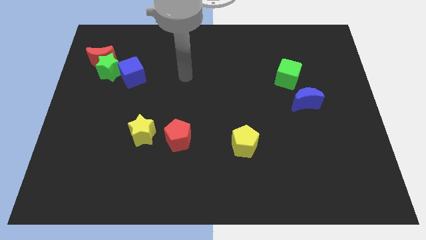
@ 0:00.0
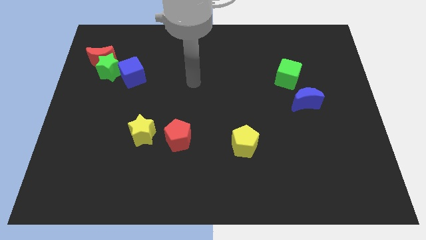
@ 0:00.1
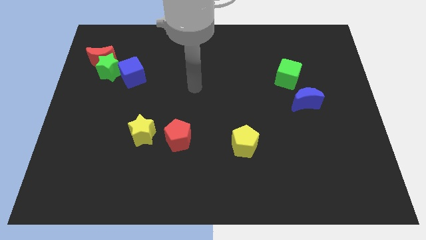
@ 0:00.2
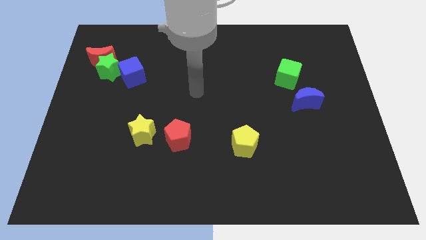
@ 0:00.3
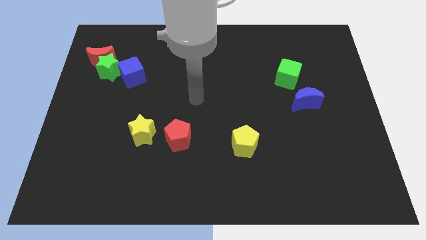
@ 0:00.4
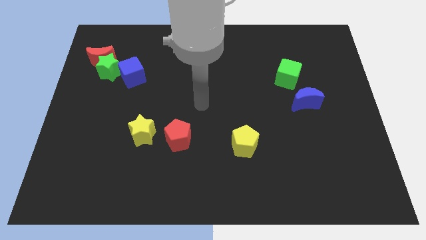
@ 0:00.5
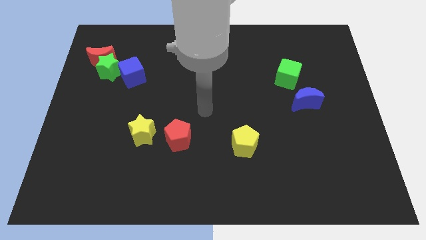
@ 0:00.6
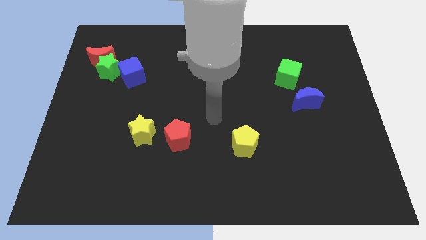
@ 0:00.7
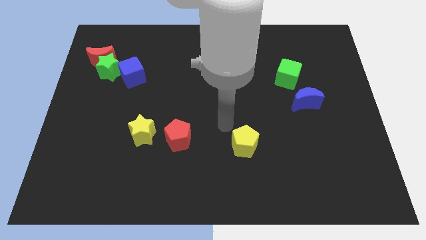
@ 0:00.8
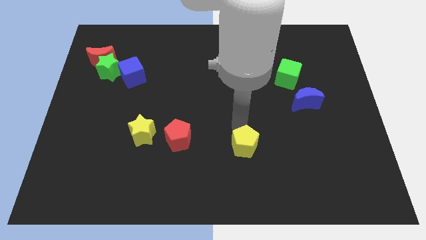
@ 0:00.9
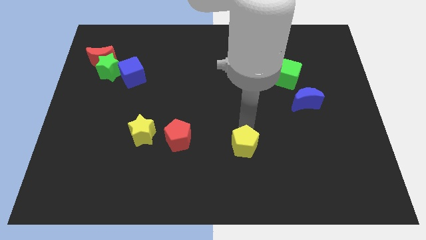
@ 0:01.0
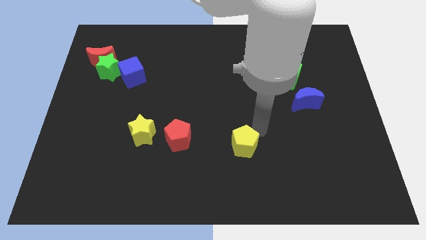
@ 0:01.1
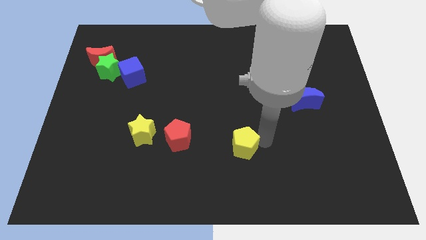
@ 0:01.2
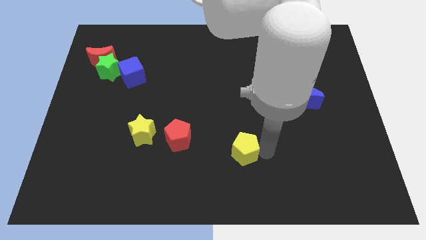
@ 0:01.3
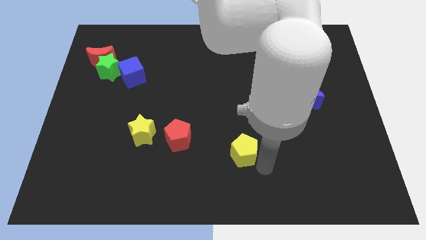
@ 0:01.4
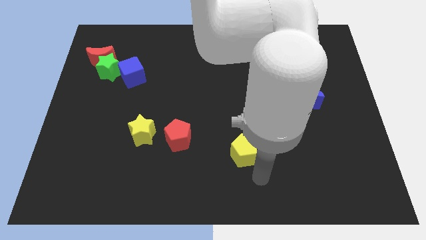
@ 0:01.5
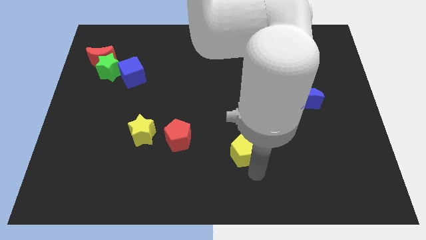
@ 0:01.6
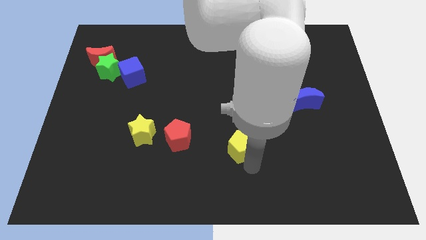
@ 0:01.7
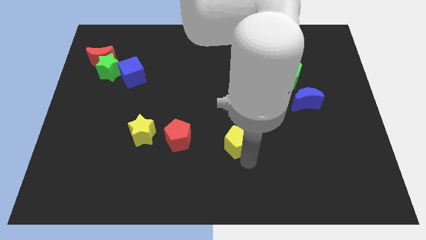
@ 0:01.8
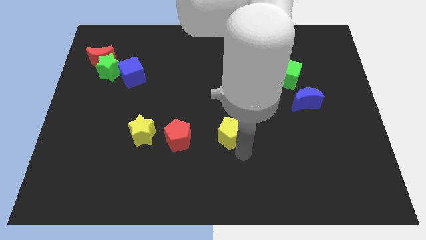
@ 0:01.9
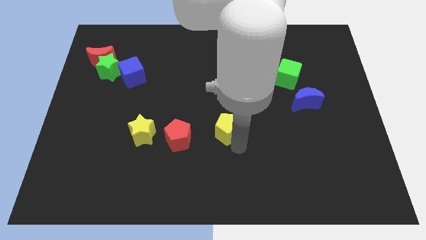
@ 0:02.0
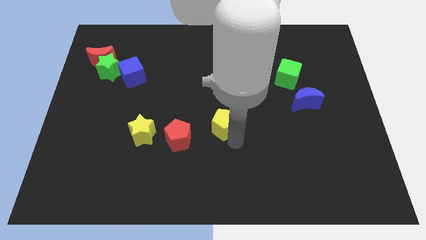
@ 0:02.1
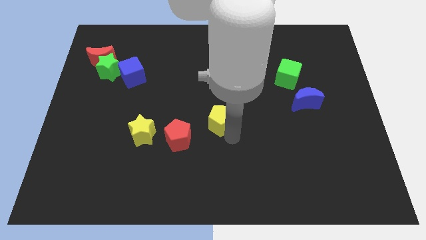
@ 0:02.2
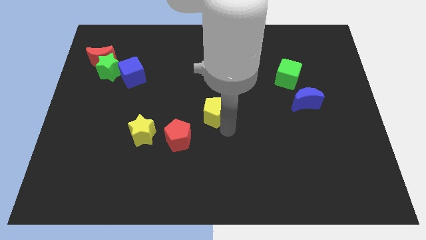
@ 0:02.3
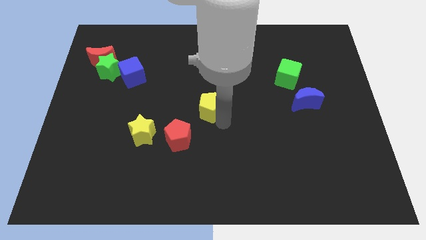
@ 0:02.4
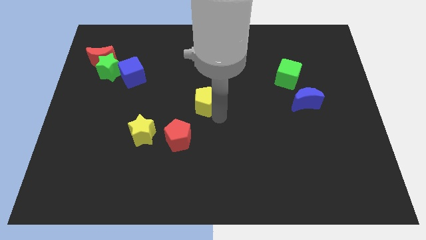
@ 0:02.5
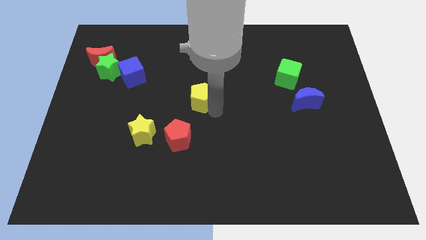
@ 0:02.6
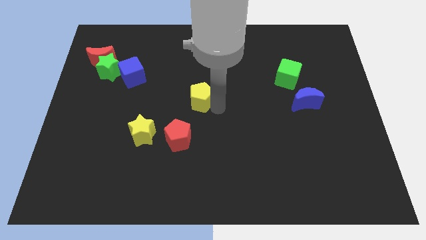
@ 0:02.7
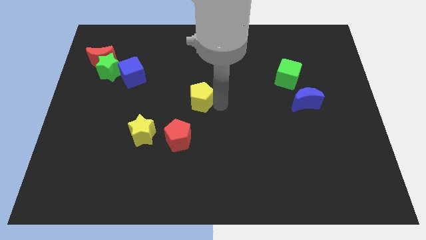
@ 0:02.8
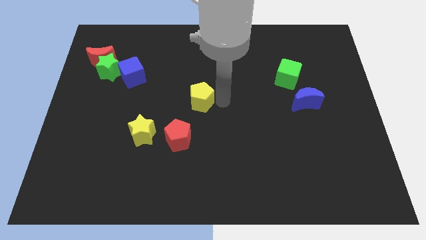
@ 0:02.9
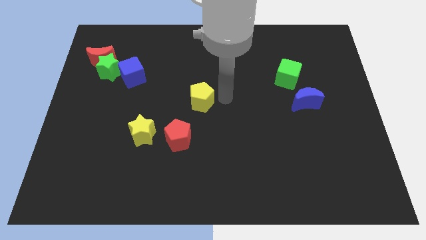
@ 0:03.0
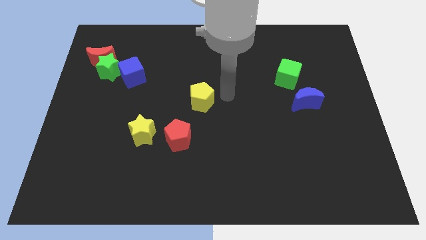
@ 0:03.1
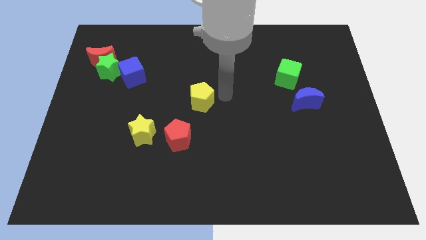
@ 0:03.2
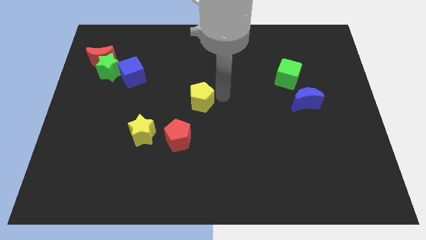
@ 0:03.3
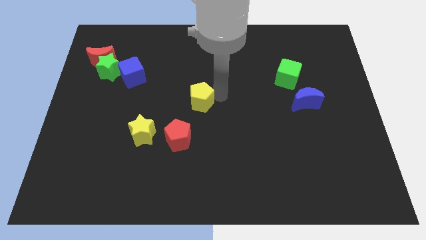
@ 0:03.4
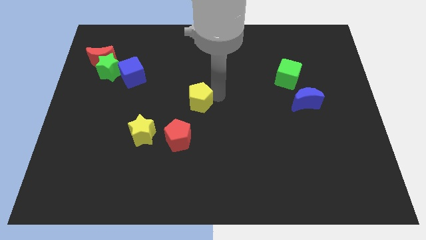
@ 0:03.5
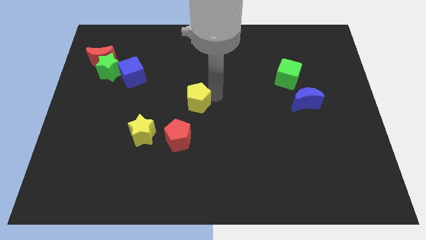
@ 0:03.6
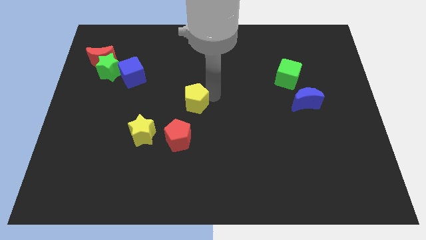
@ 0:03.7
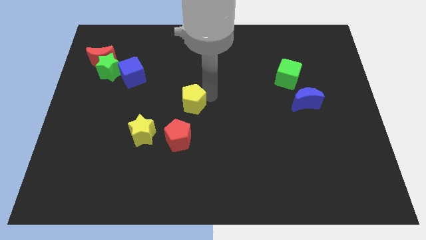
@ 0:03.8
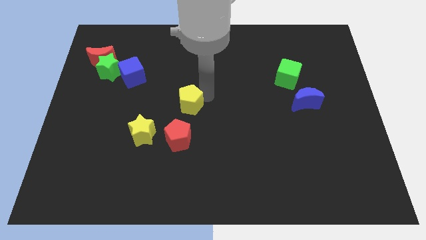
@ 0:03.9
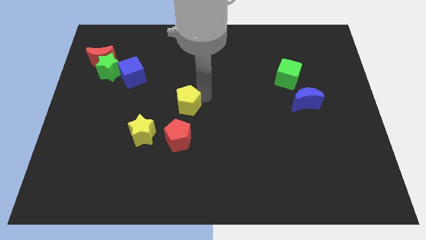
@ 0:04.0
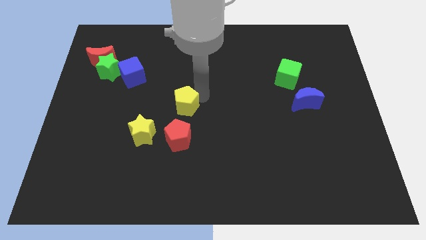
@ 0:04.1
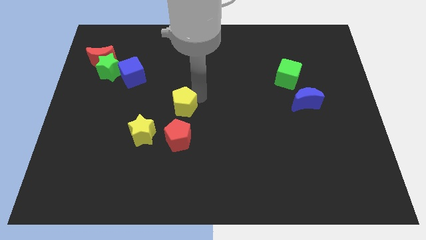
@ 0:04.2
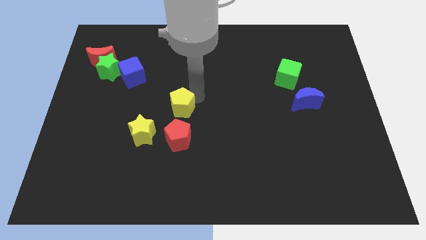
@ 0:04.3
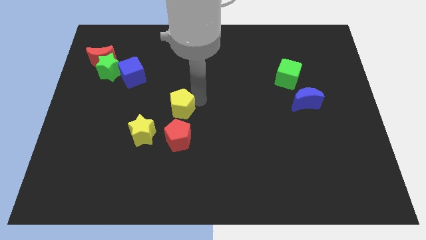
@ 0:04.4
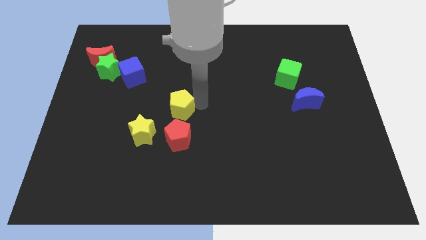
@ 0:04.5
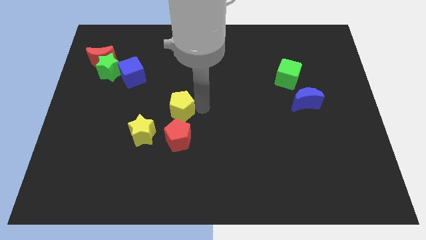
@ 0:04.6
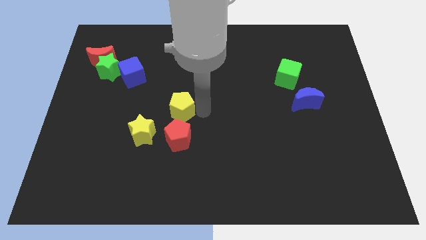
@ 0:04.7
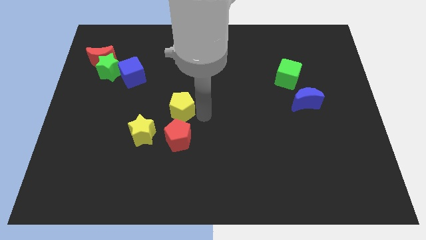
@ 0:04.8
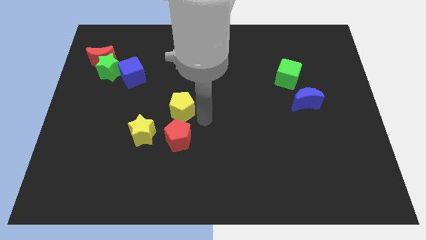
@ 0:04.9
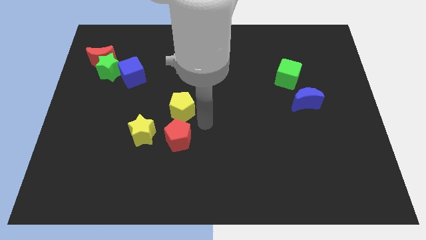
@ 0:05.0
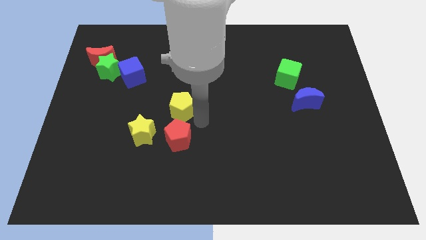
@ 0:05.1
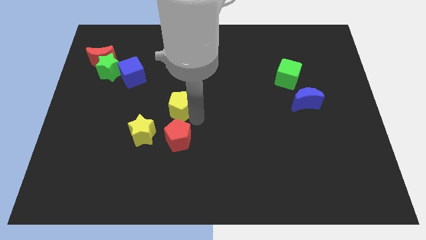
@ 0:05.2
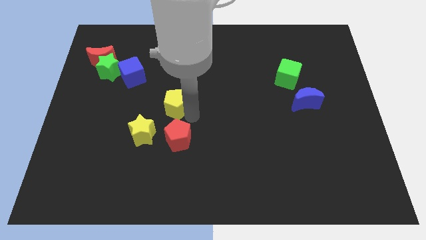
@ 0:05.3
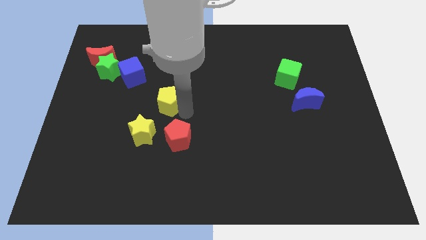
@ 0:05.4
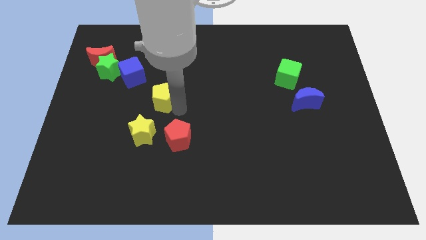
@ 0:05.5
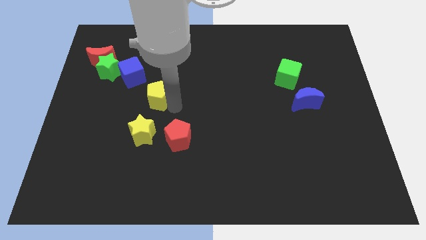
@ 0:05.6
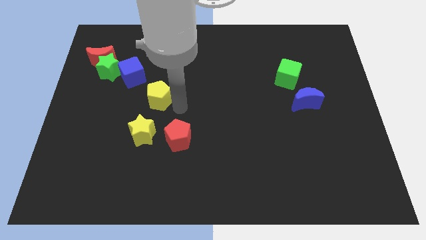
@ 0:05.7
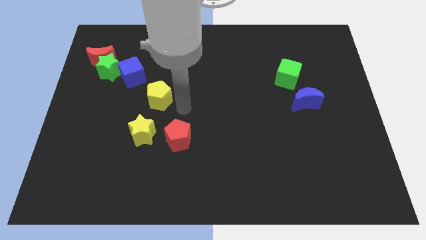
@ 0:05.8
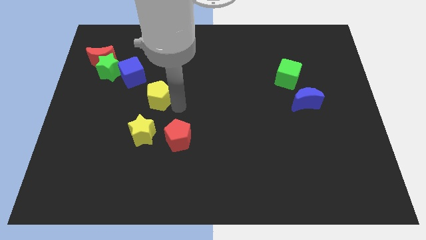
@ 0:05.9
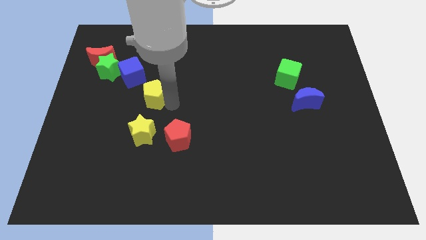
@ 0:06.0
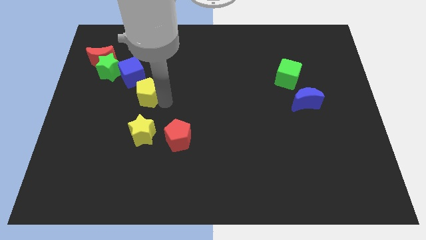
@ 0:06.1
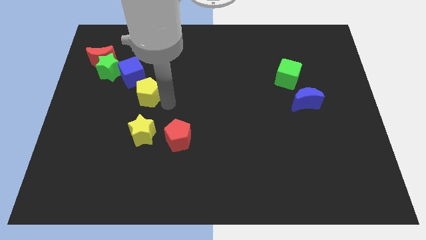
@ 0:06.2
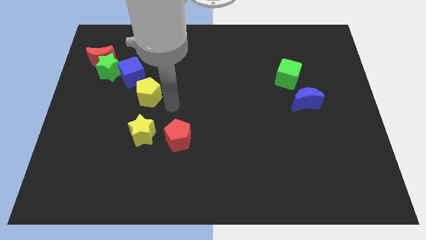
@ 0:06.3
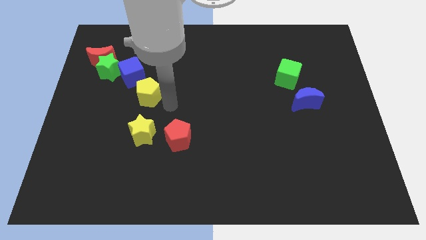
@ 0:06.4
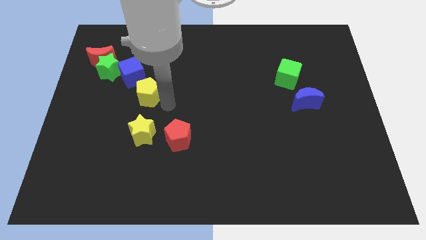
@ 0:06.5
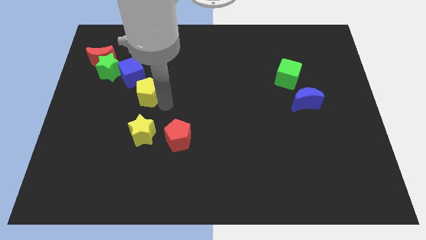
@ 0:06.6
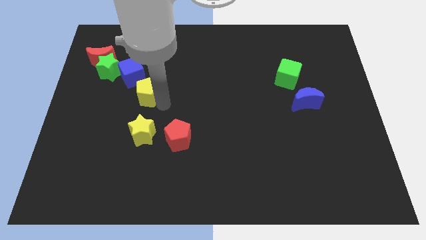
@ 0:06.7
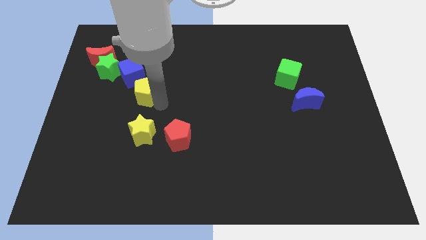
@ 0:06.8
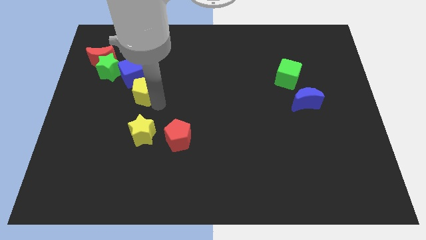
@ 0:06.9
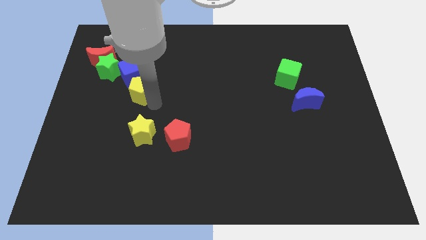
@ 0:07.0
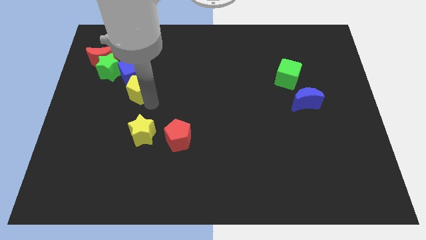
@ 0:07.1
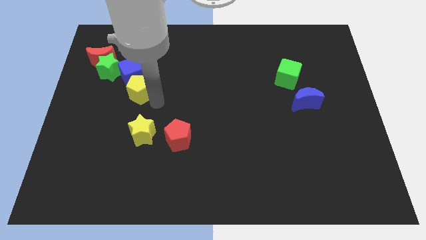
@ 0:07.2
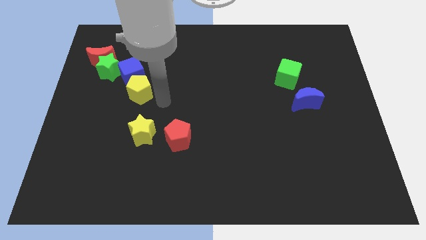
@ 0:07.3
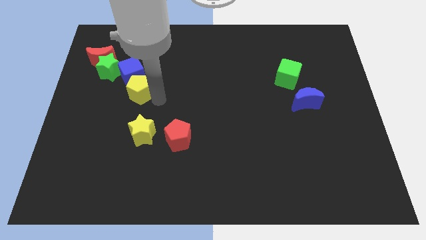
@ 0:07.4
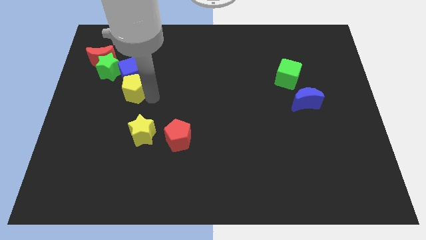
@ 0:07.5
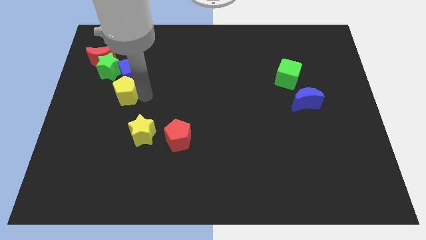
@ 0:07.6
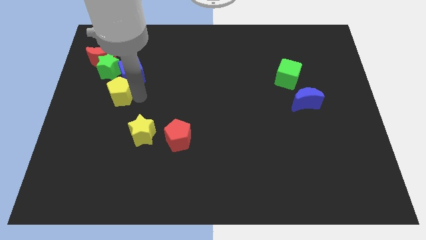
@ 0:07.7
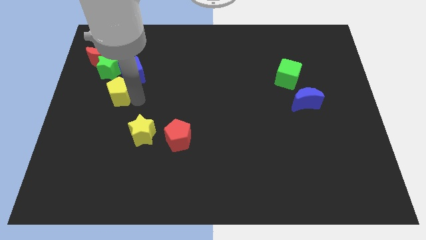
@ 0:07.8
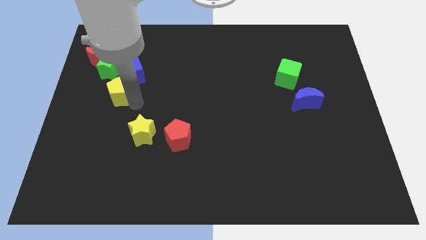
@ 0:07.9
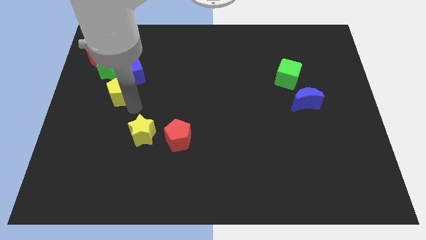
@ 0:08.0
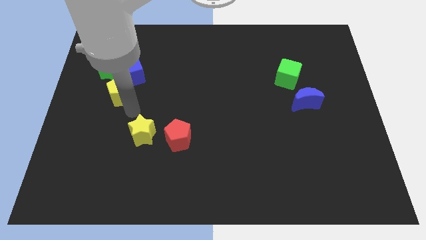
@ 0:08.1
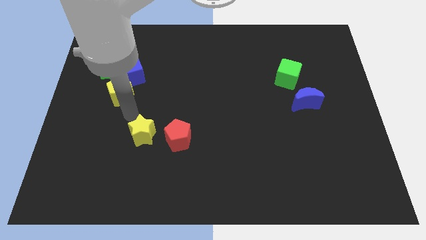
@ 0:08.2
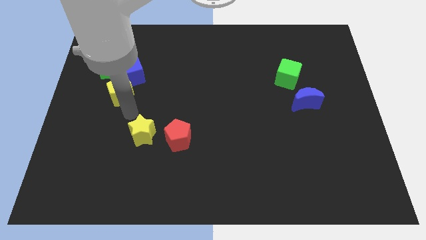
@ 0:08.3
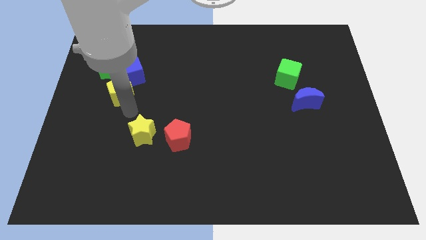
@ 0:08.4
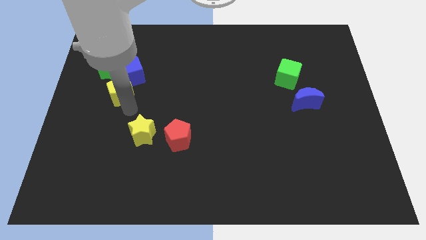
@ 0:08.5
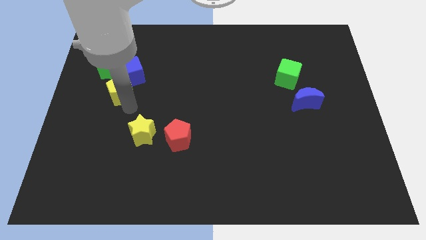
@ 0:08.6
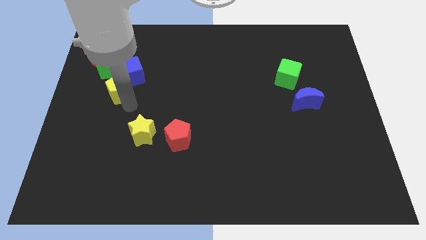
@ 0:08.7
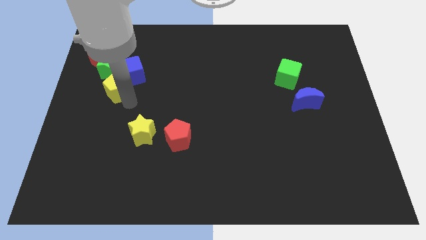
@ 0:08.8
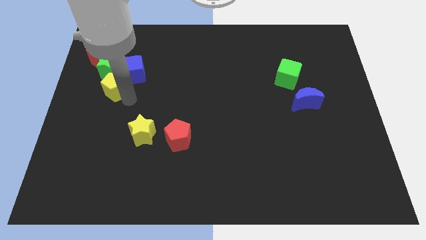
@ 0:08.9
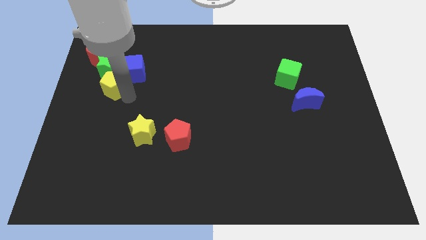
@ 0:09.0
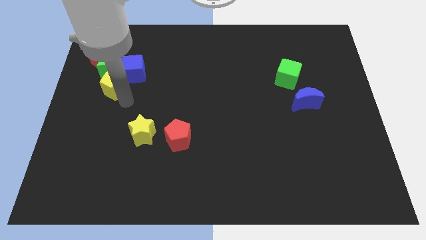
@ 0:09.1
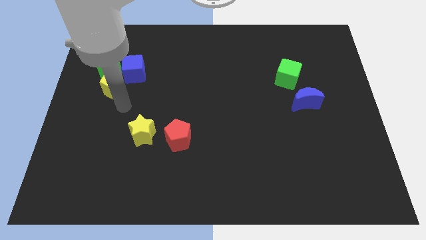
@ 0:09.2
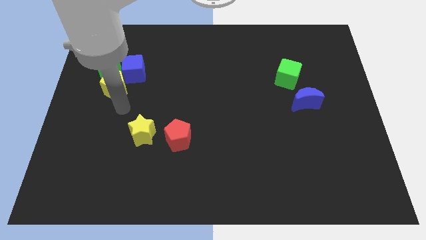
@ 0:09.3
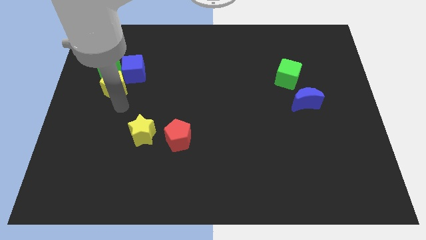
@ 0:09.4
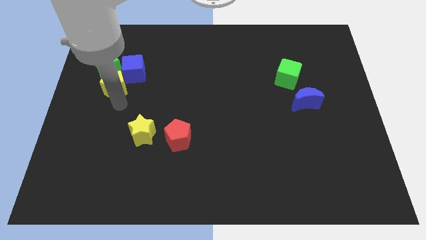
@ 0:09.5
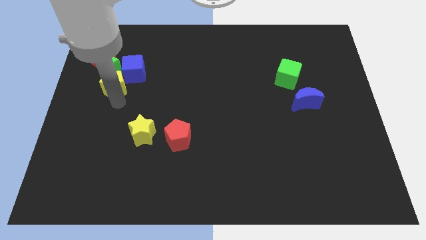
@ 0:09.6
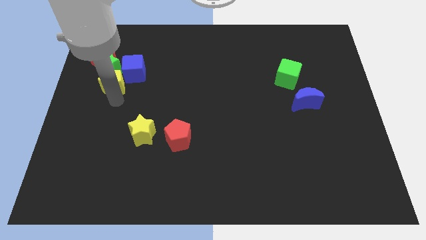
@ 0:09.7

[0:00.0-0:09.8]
push the yellow pentagon towards the green star
